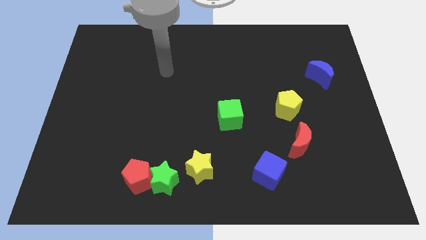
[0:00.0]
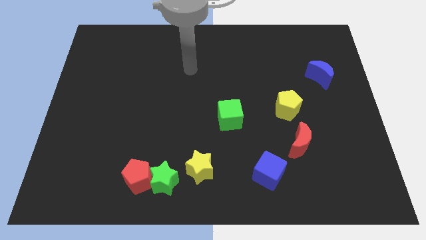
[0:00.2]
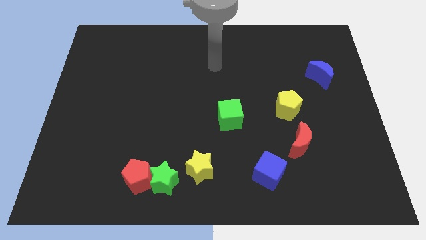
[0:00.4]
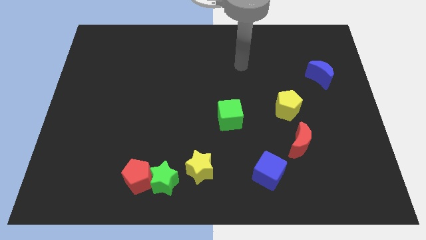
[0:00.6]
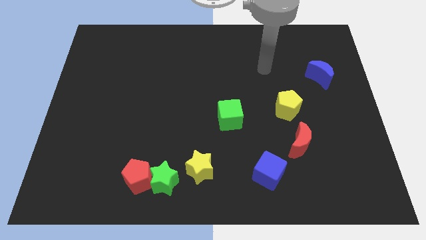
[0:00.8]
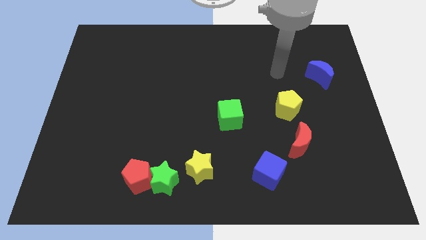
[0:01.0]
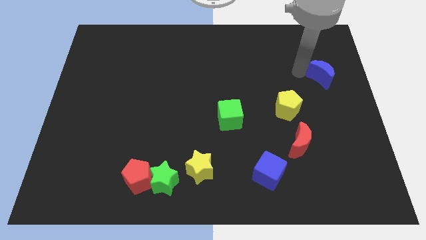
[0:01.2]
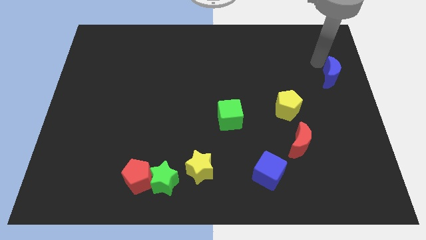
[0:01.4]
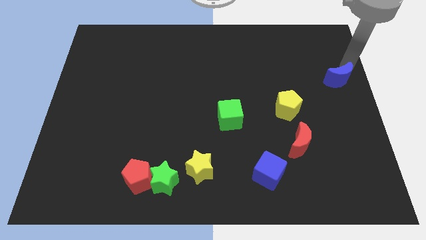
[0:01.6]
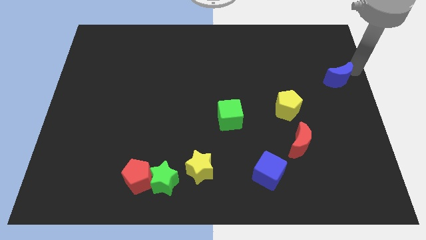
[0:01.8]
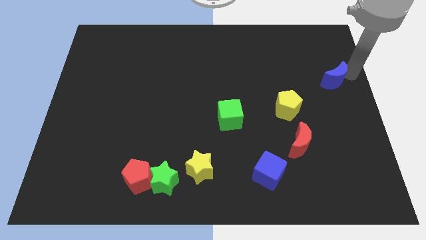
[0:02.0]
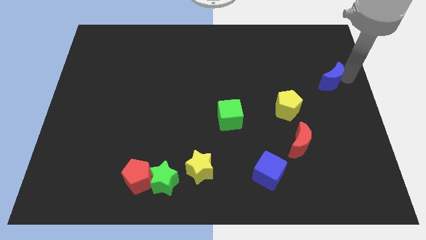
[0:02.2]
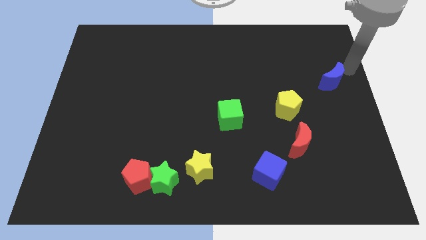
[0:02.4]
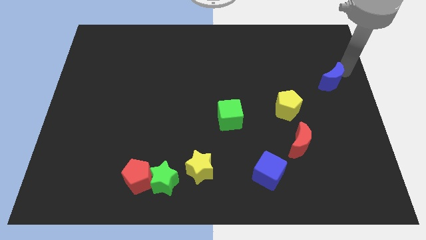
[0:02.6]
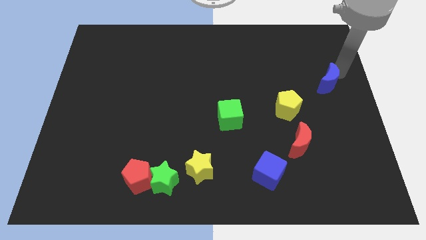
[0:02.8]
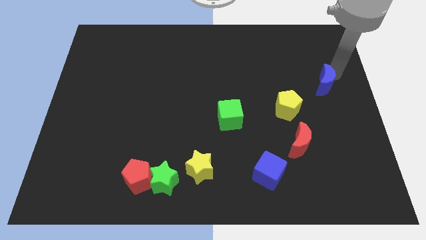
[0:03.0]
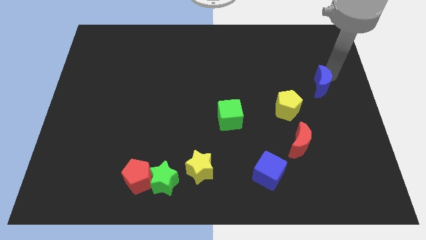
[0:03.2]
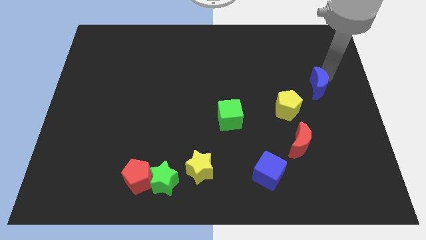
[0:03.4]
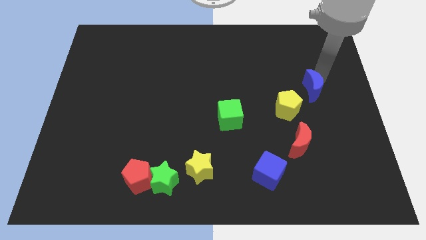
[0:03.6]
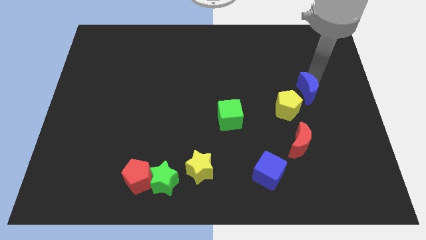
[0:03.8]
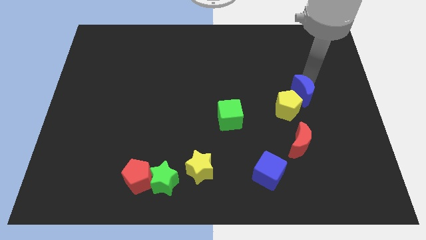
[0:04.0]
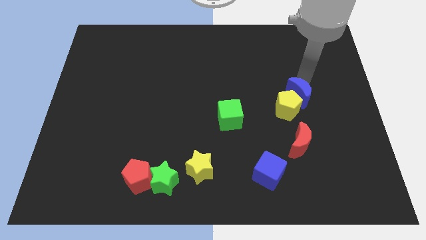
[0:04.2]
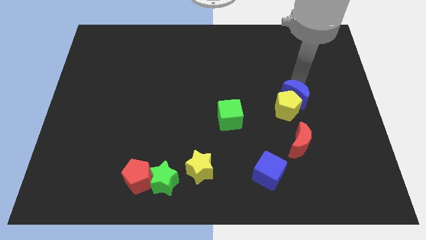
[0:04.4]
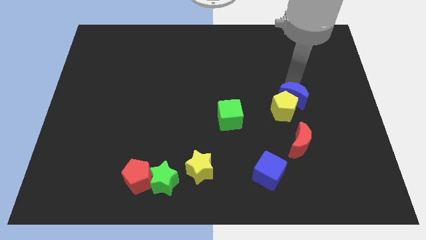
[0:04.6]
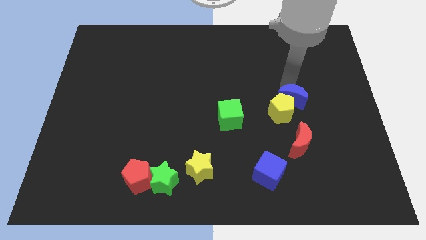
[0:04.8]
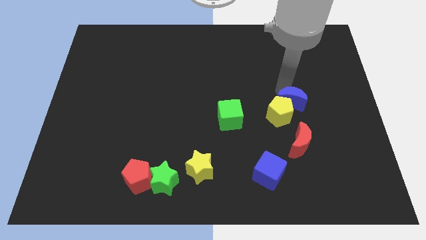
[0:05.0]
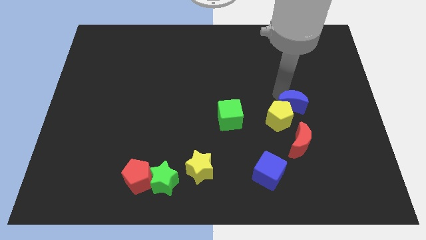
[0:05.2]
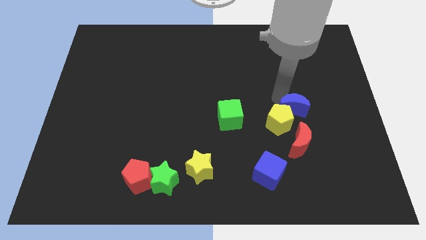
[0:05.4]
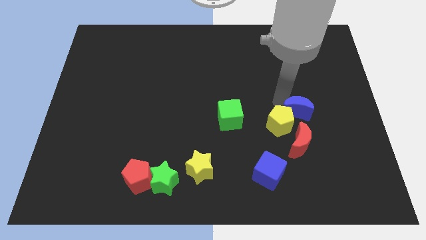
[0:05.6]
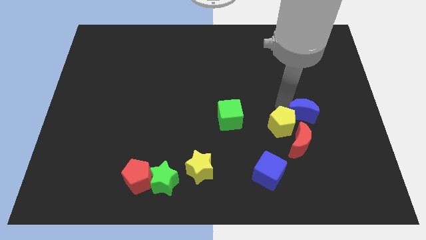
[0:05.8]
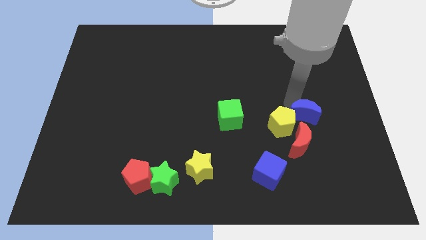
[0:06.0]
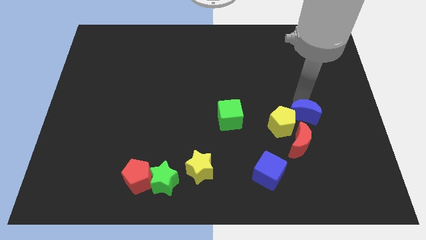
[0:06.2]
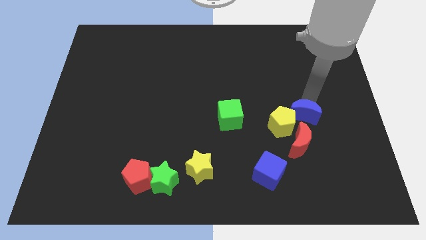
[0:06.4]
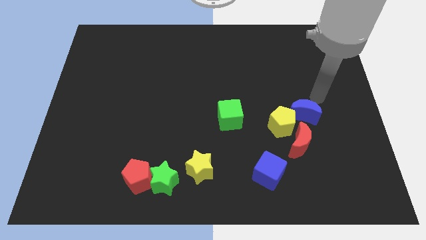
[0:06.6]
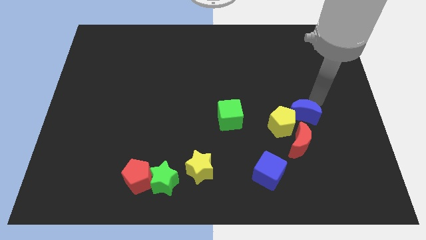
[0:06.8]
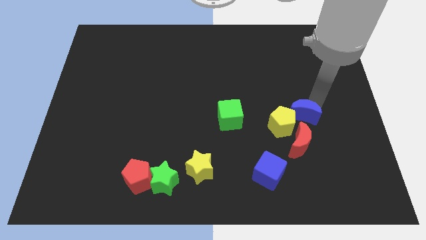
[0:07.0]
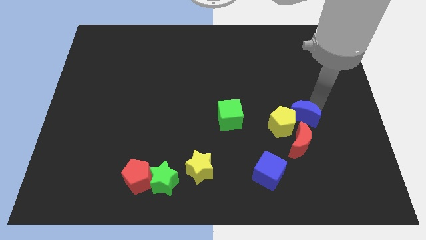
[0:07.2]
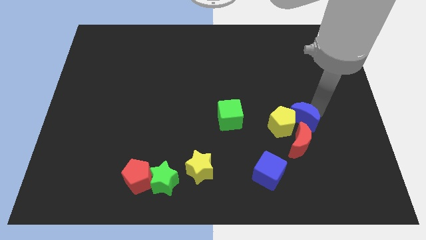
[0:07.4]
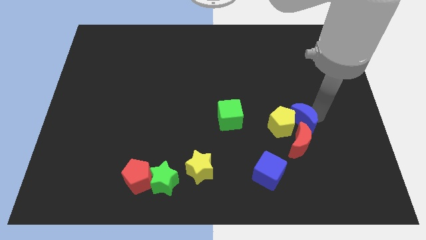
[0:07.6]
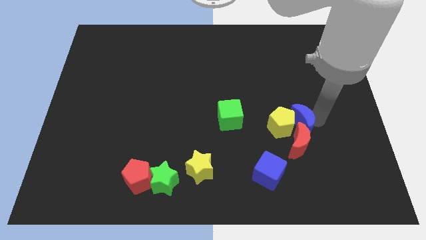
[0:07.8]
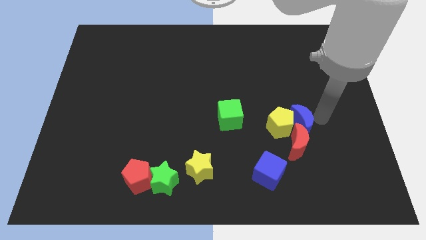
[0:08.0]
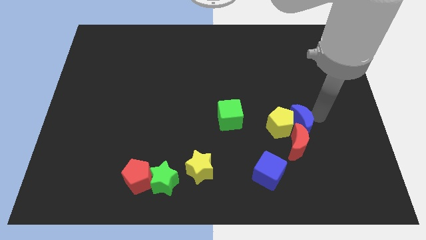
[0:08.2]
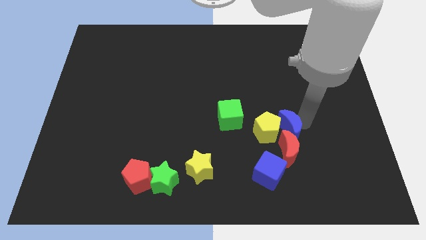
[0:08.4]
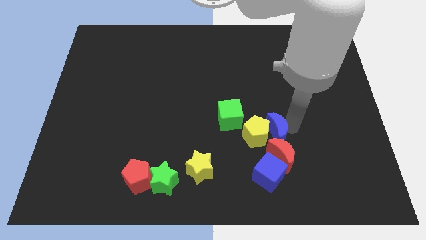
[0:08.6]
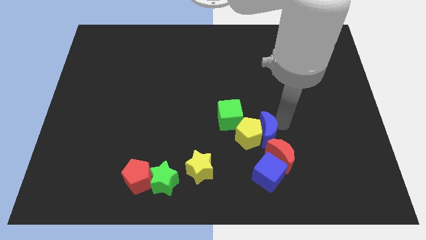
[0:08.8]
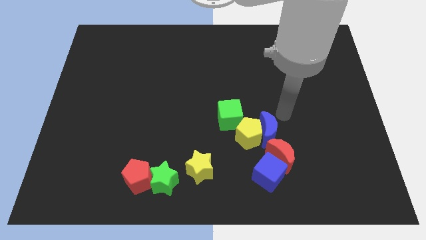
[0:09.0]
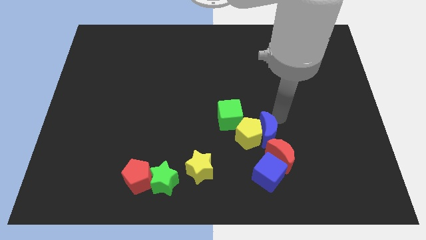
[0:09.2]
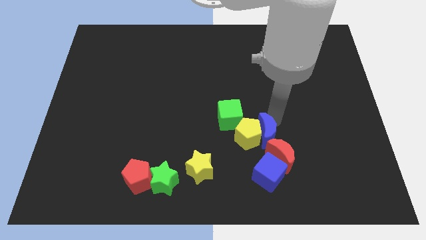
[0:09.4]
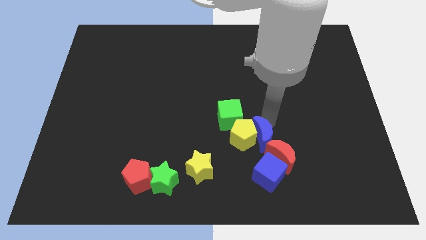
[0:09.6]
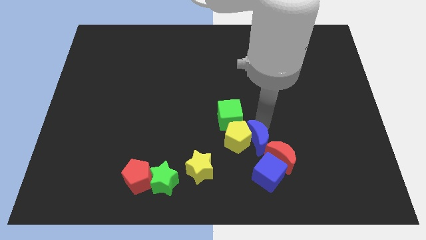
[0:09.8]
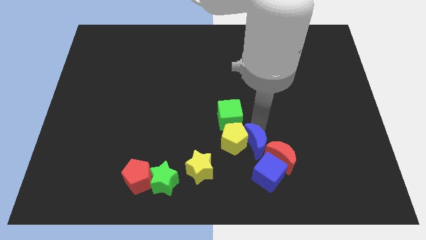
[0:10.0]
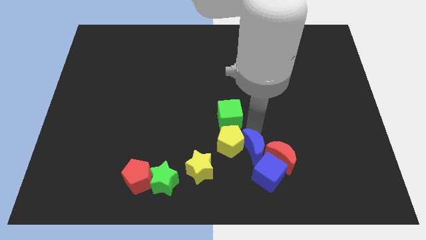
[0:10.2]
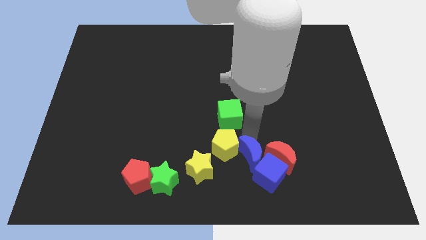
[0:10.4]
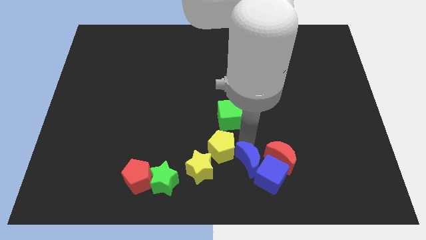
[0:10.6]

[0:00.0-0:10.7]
put the blue moon to the bottom side

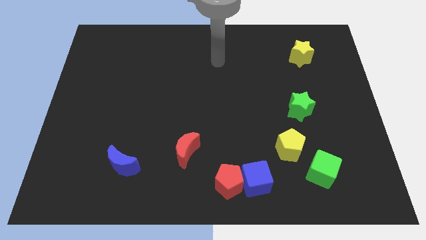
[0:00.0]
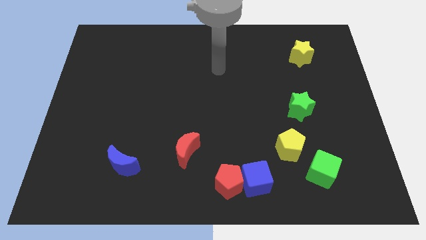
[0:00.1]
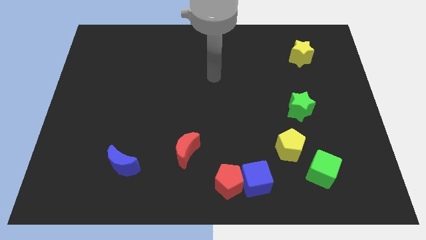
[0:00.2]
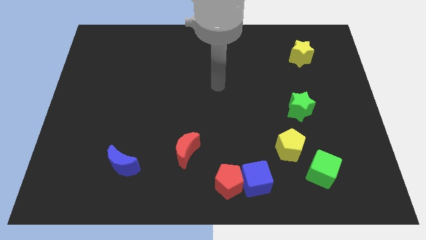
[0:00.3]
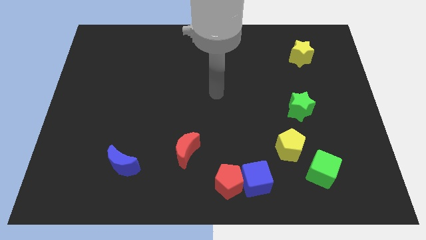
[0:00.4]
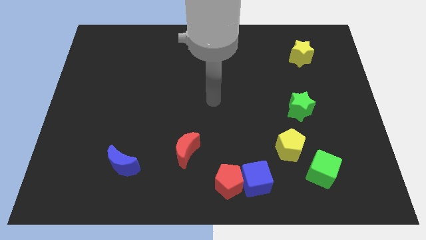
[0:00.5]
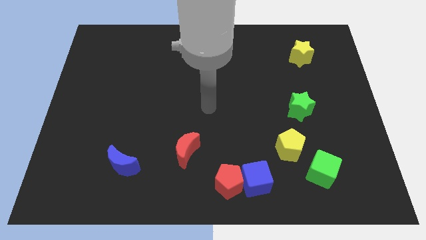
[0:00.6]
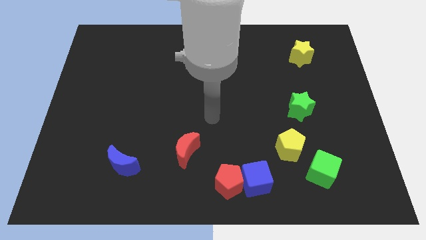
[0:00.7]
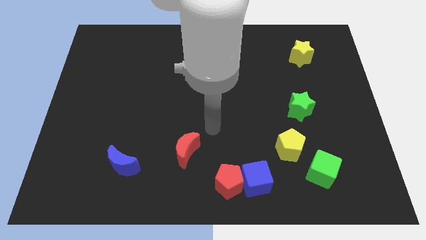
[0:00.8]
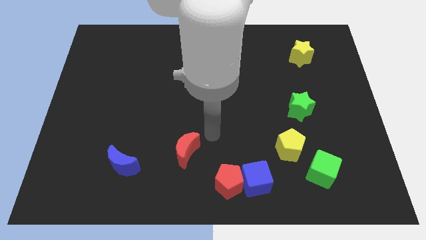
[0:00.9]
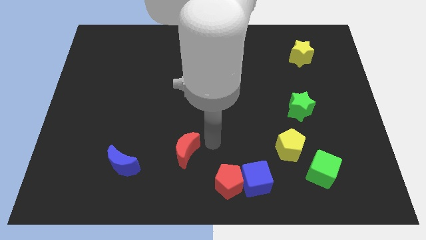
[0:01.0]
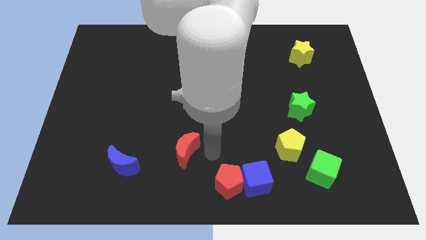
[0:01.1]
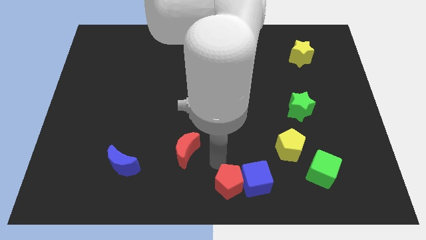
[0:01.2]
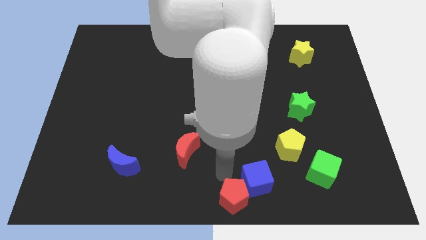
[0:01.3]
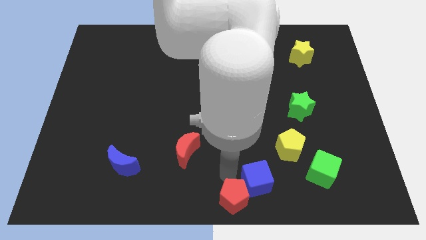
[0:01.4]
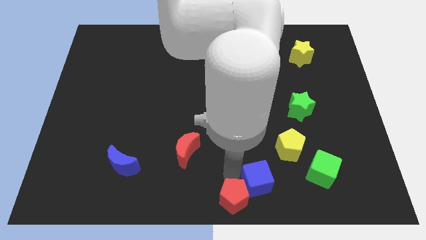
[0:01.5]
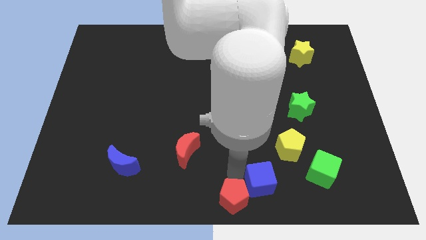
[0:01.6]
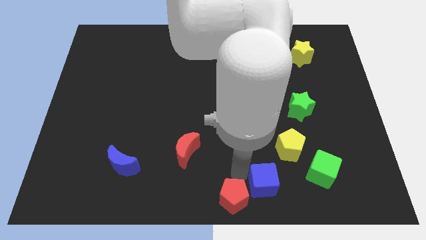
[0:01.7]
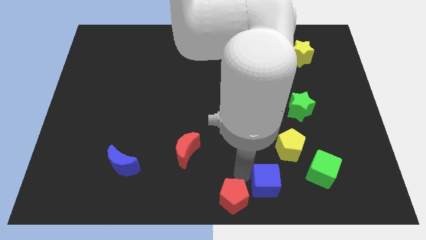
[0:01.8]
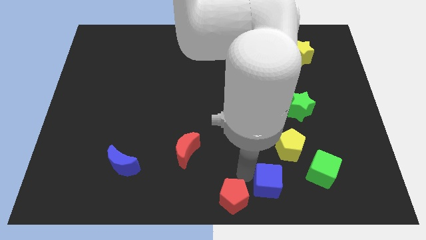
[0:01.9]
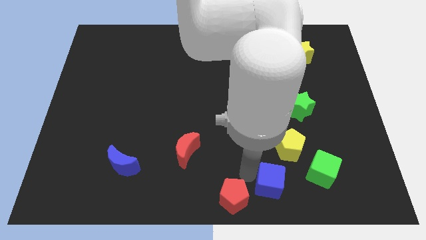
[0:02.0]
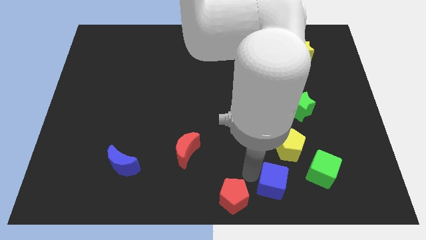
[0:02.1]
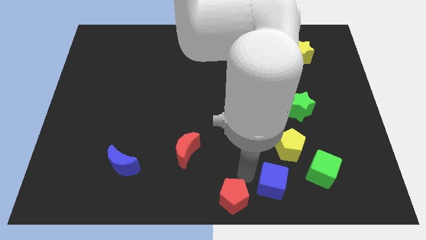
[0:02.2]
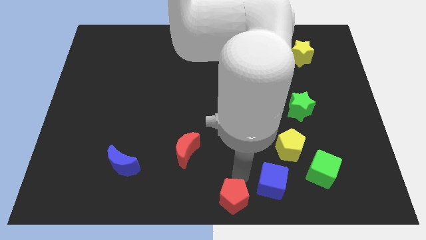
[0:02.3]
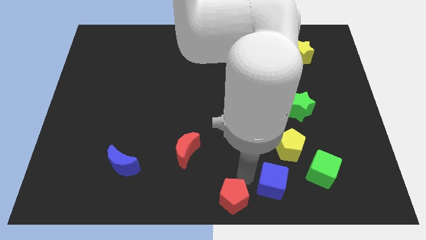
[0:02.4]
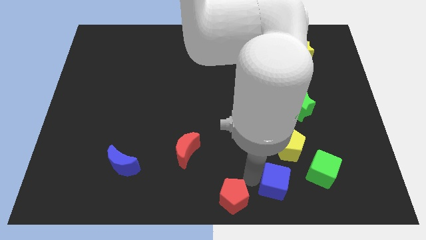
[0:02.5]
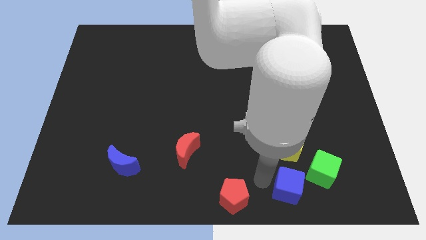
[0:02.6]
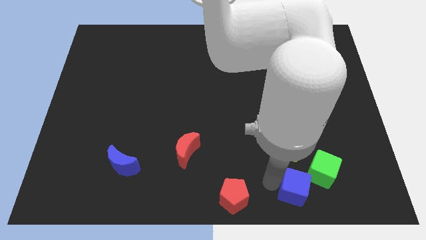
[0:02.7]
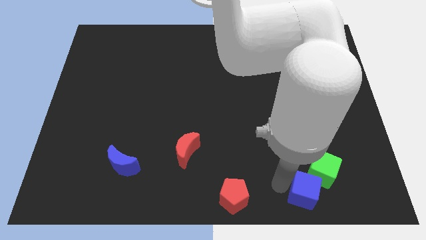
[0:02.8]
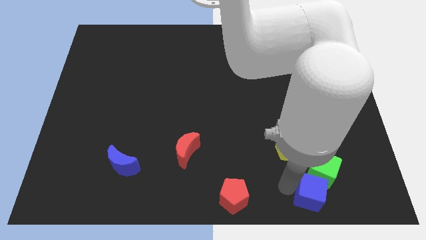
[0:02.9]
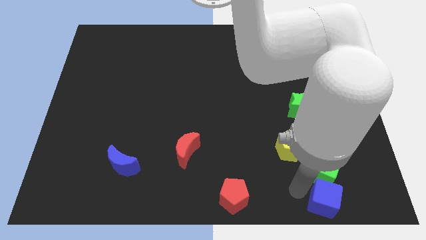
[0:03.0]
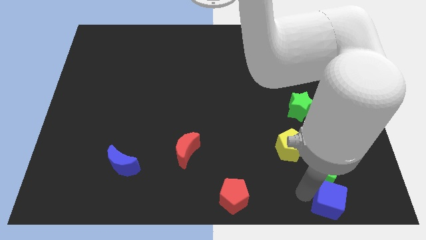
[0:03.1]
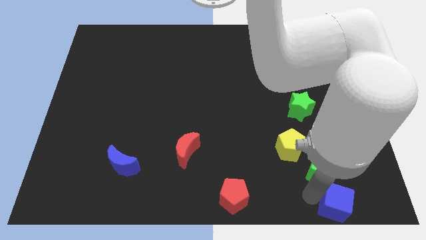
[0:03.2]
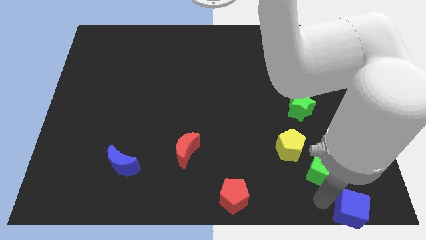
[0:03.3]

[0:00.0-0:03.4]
put the blue cube to the lower right corner
